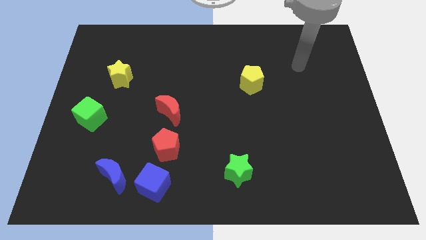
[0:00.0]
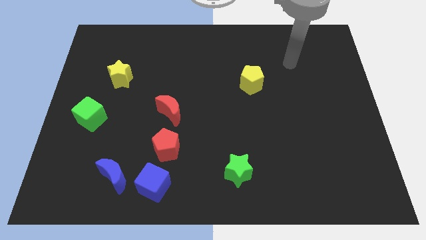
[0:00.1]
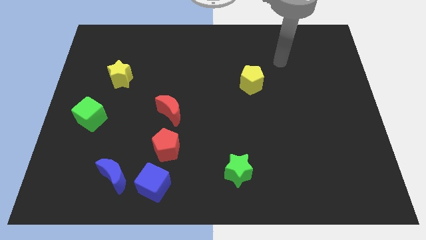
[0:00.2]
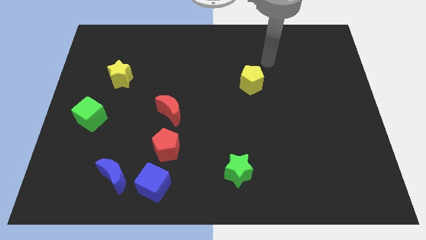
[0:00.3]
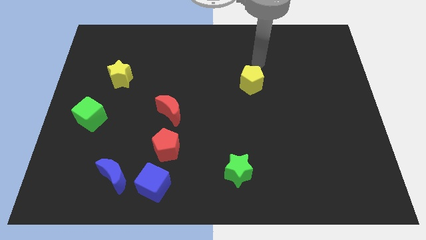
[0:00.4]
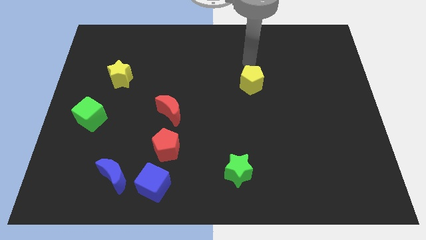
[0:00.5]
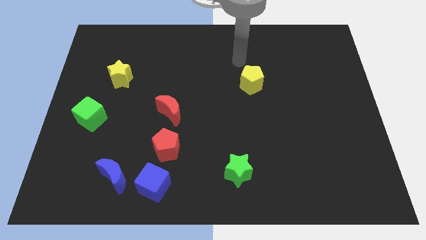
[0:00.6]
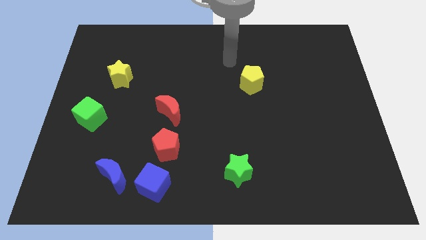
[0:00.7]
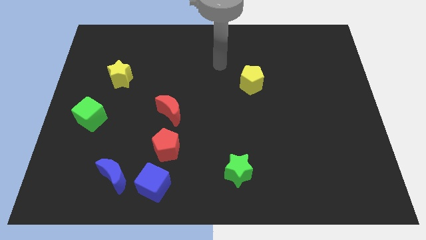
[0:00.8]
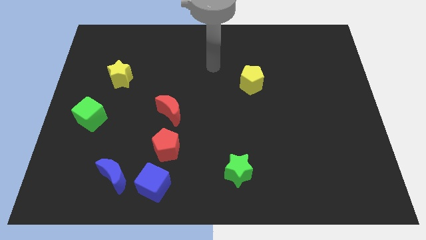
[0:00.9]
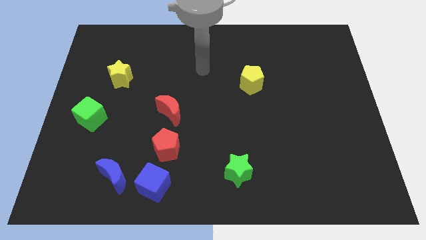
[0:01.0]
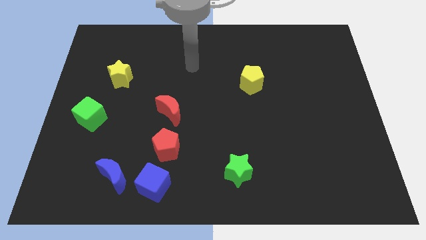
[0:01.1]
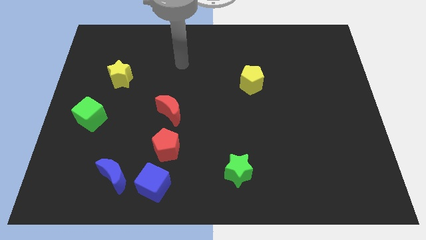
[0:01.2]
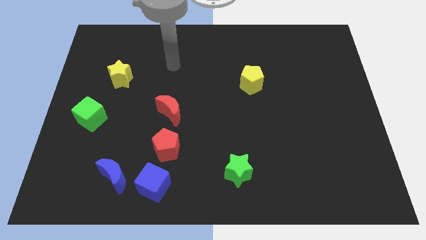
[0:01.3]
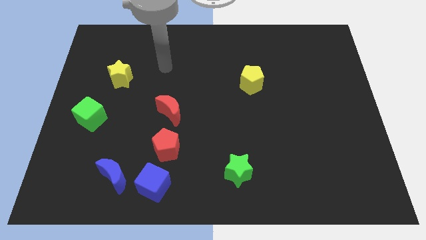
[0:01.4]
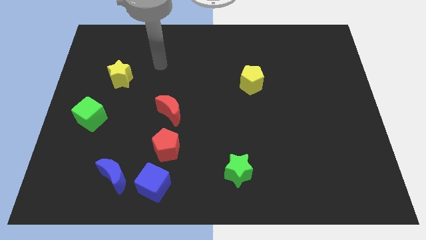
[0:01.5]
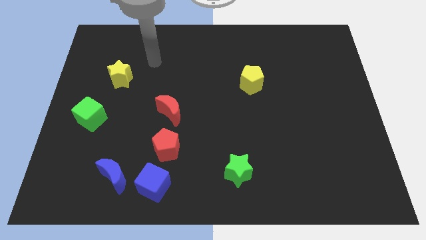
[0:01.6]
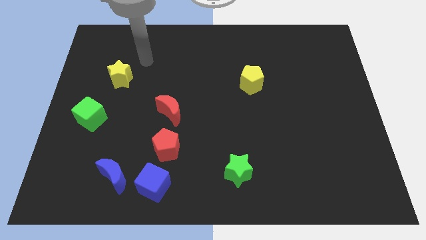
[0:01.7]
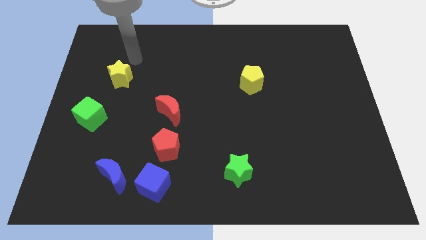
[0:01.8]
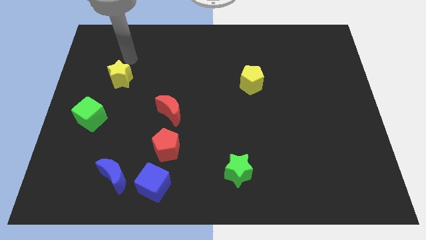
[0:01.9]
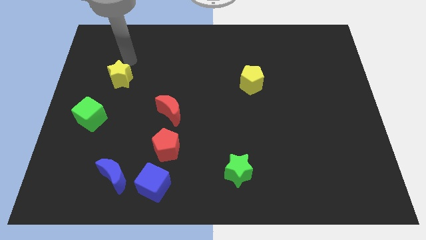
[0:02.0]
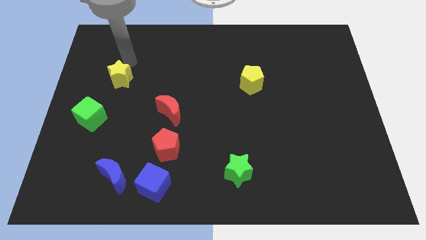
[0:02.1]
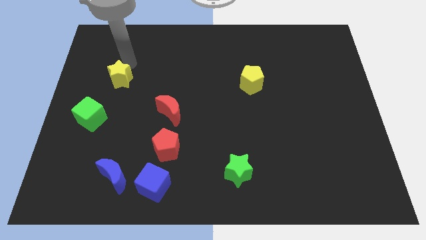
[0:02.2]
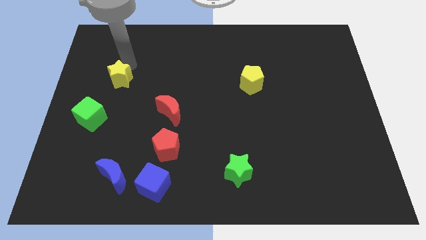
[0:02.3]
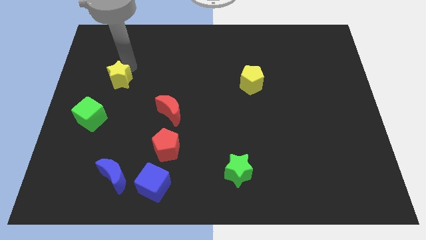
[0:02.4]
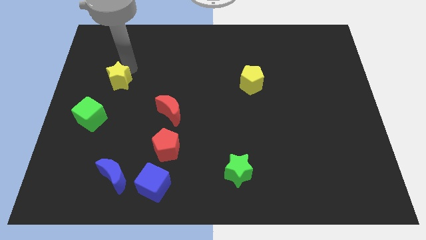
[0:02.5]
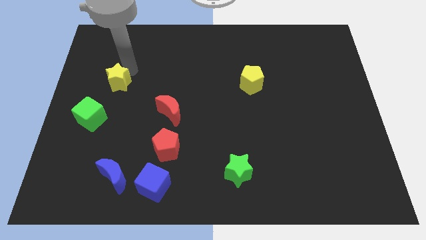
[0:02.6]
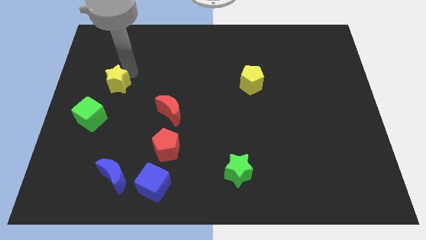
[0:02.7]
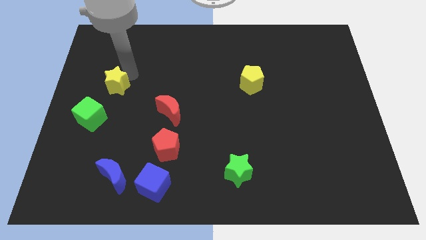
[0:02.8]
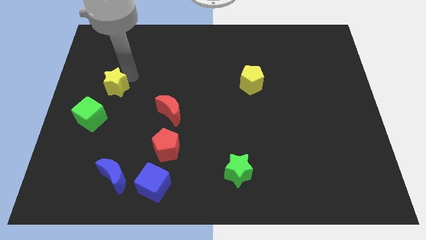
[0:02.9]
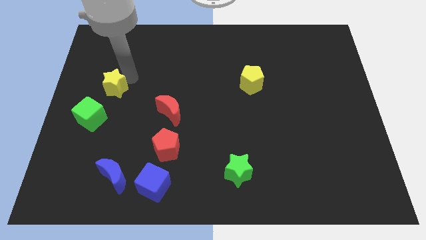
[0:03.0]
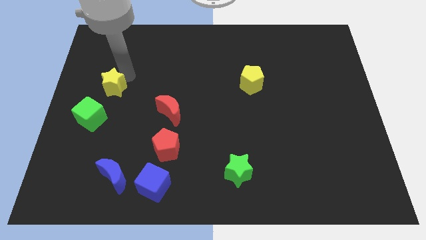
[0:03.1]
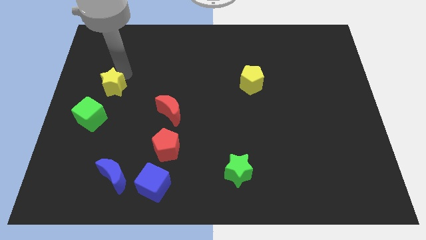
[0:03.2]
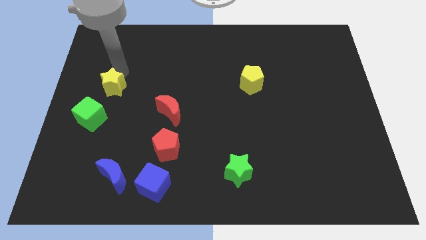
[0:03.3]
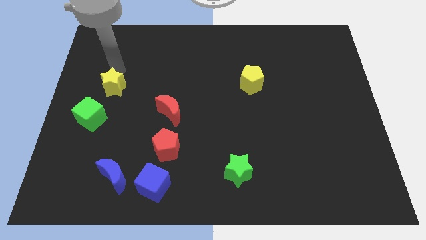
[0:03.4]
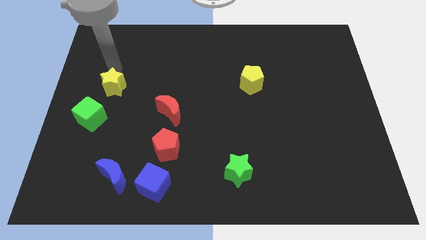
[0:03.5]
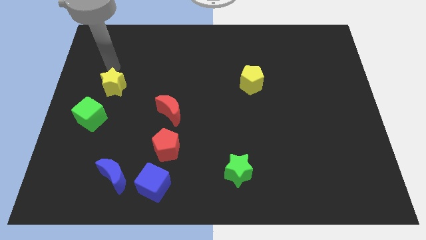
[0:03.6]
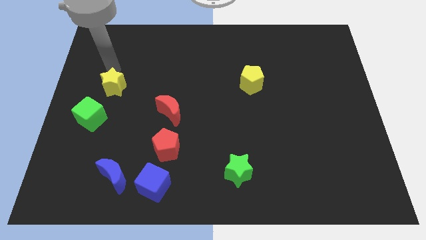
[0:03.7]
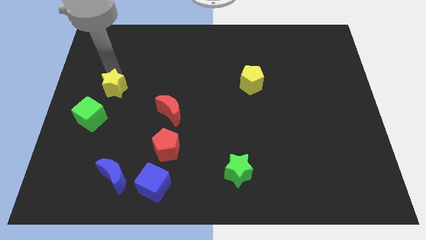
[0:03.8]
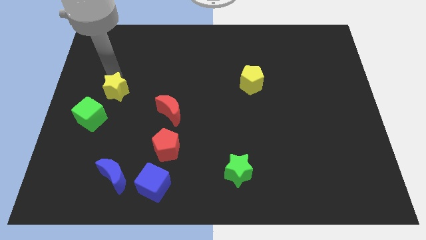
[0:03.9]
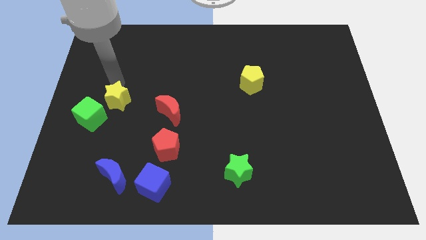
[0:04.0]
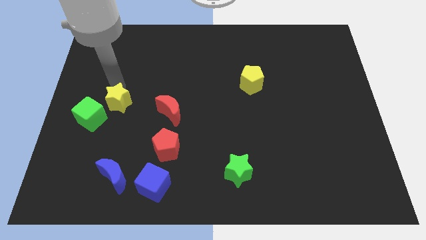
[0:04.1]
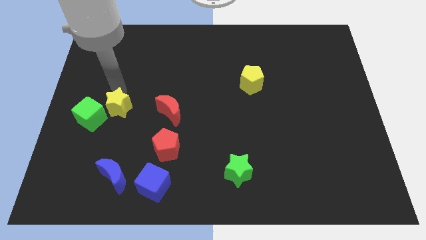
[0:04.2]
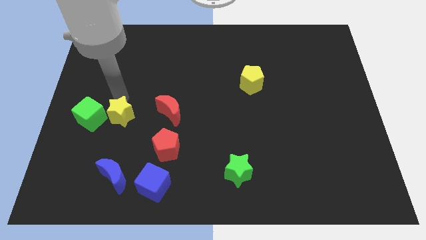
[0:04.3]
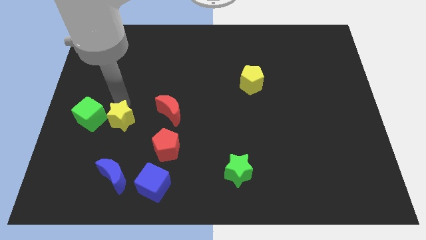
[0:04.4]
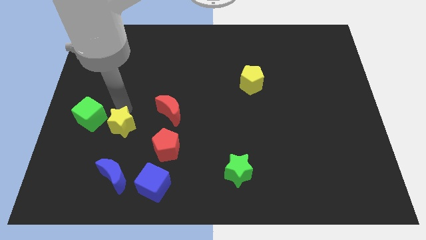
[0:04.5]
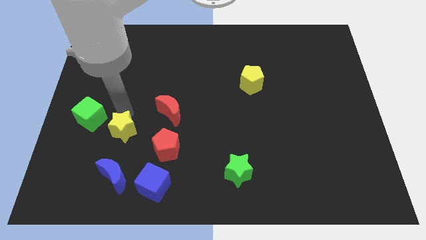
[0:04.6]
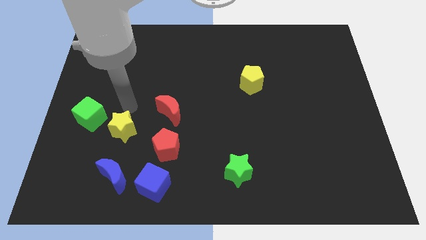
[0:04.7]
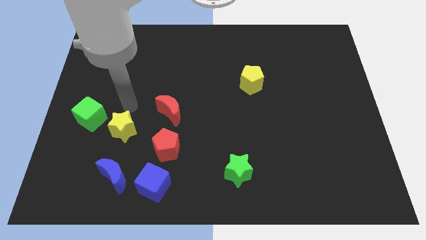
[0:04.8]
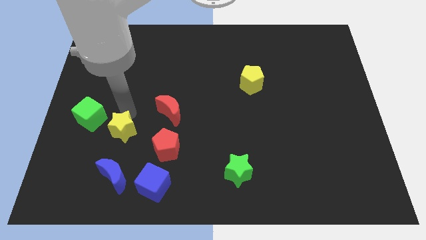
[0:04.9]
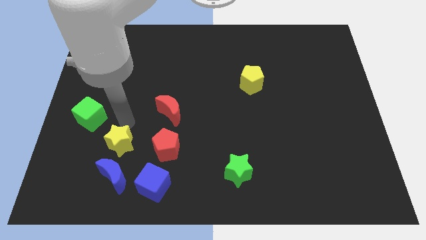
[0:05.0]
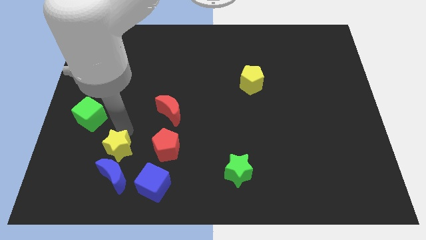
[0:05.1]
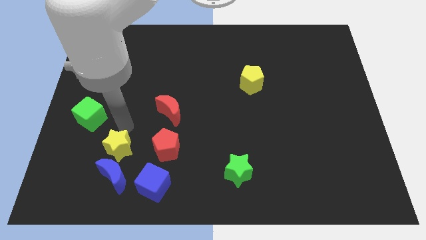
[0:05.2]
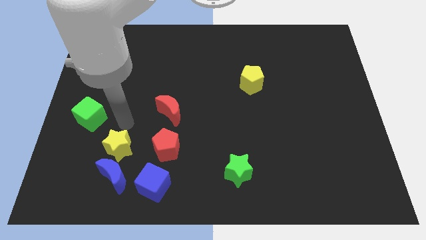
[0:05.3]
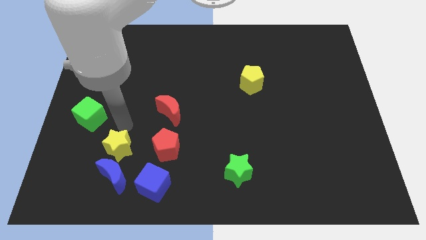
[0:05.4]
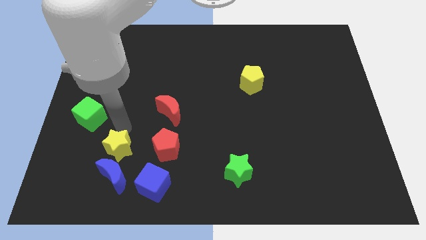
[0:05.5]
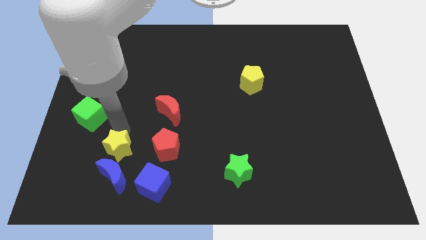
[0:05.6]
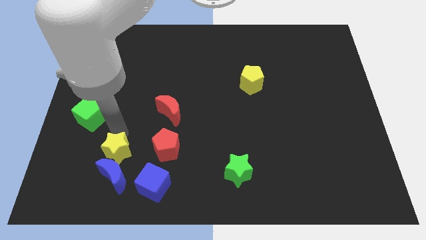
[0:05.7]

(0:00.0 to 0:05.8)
slide the yellow star towards the blue moon

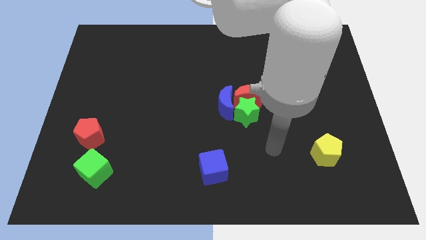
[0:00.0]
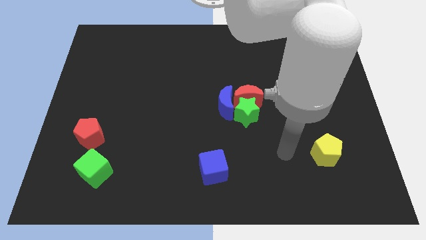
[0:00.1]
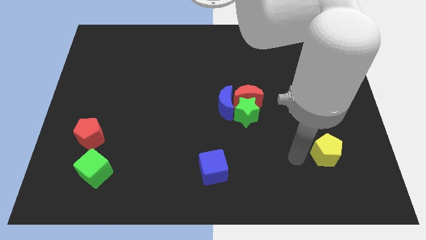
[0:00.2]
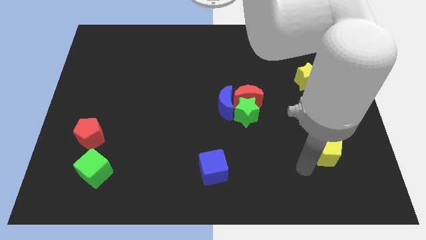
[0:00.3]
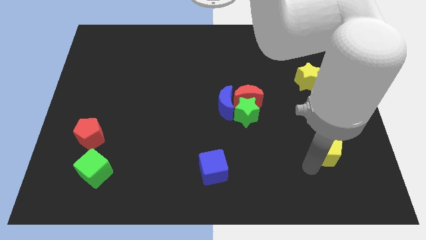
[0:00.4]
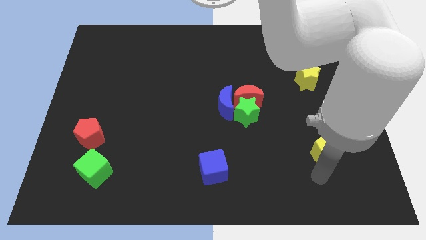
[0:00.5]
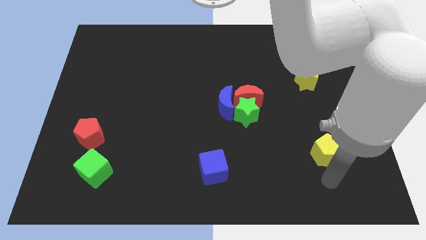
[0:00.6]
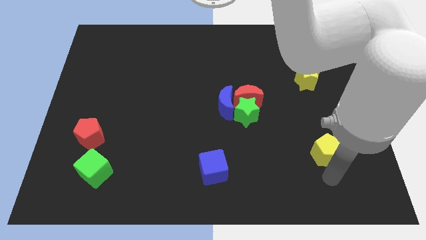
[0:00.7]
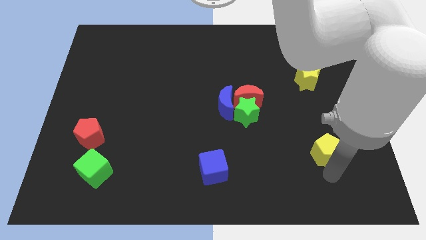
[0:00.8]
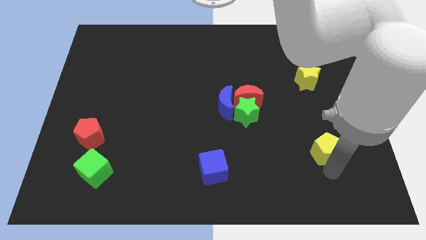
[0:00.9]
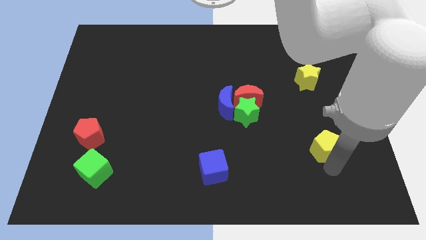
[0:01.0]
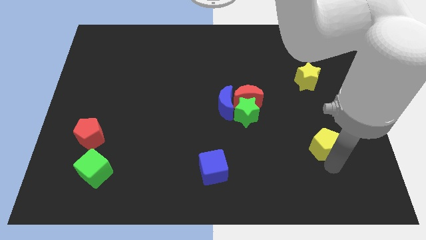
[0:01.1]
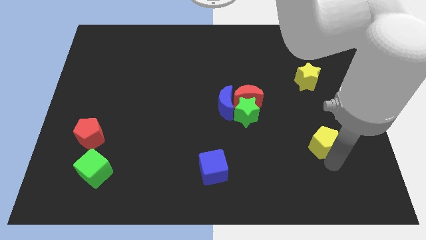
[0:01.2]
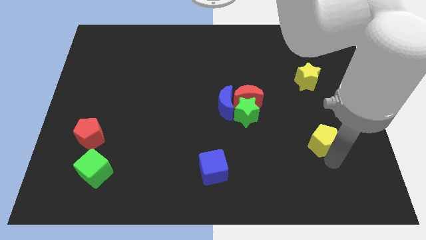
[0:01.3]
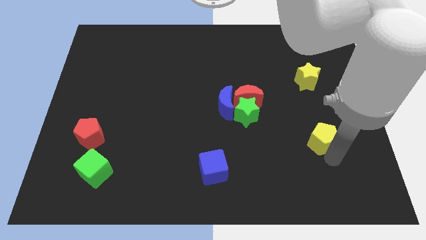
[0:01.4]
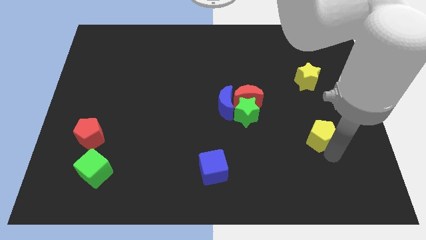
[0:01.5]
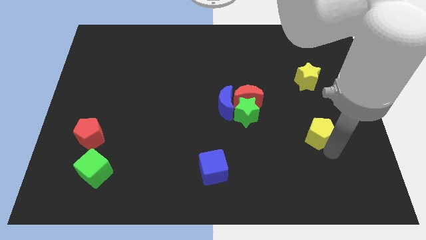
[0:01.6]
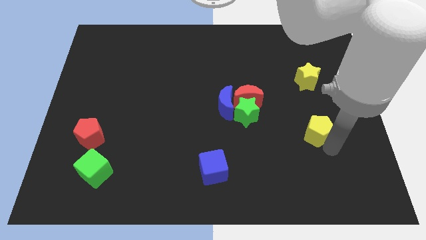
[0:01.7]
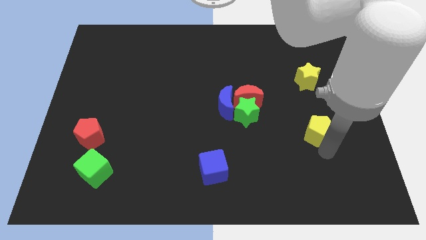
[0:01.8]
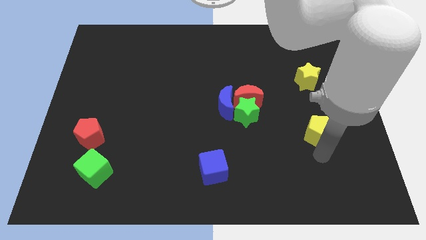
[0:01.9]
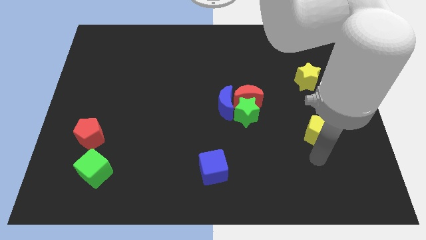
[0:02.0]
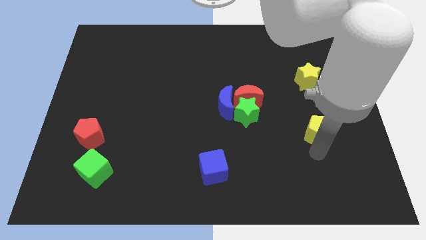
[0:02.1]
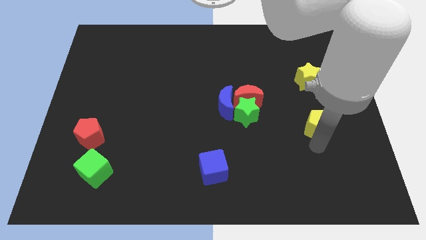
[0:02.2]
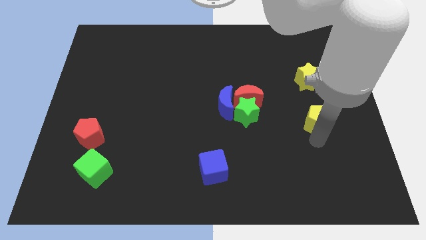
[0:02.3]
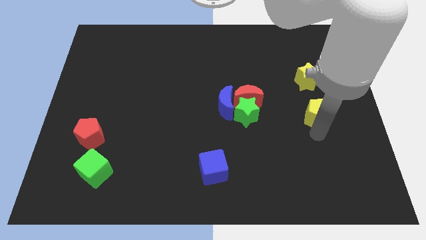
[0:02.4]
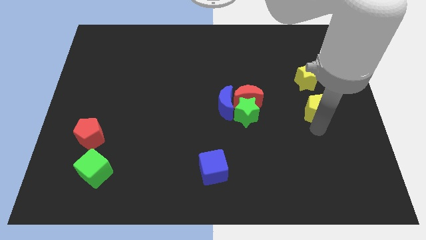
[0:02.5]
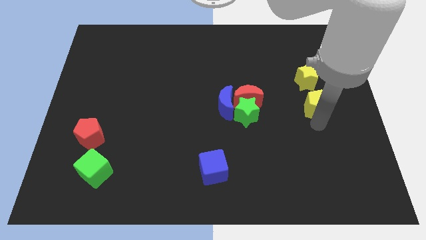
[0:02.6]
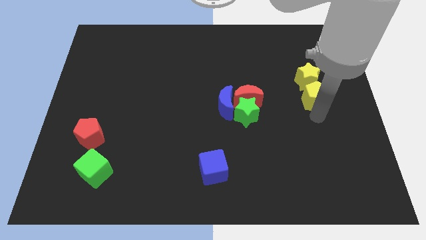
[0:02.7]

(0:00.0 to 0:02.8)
slide the yellow pentagon towards the yellow star
